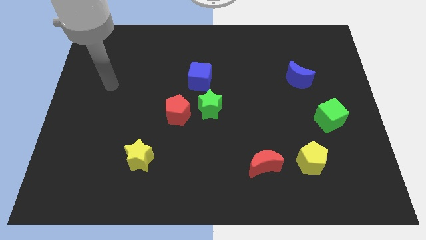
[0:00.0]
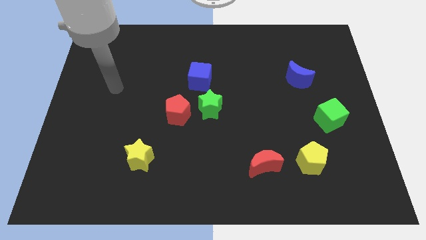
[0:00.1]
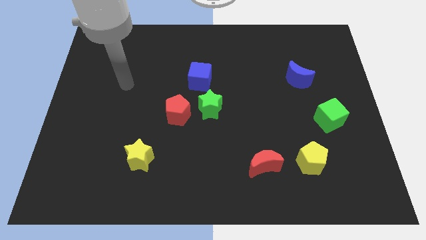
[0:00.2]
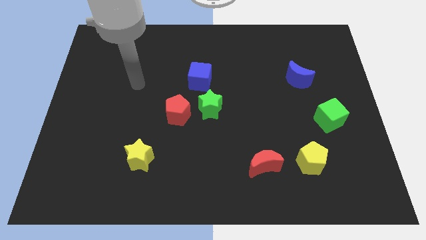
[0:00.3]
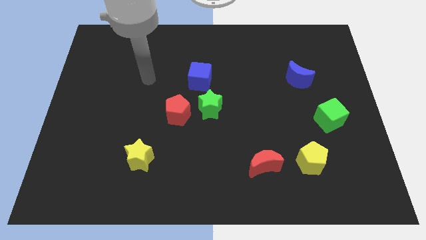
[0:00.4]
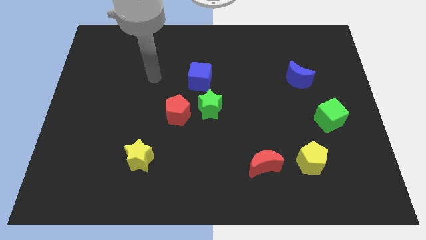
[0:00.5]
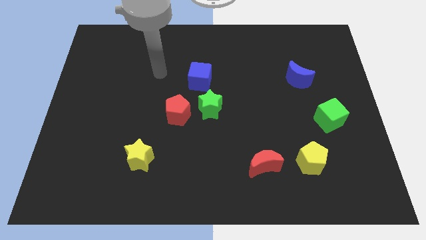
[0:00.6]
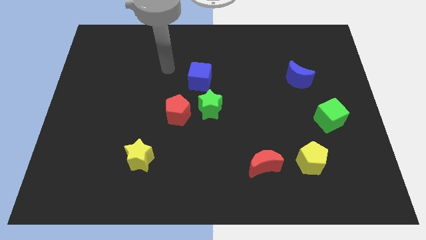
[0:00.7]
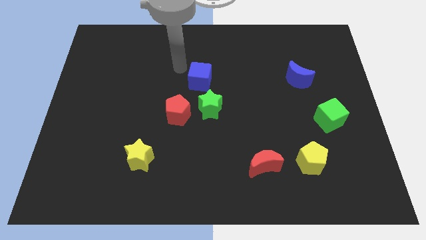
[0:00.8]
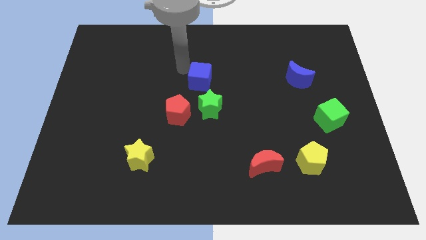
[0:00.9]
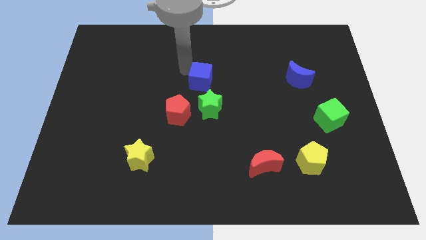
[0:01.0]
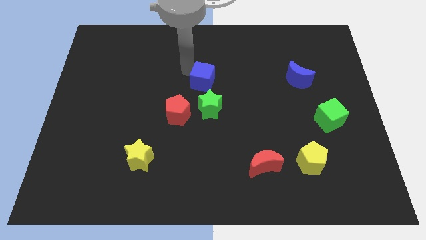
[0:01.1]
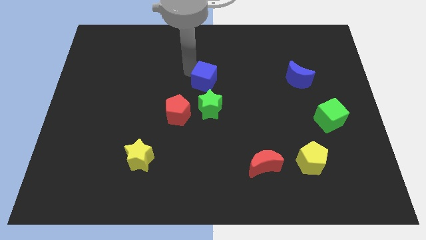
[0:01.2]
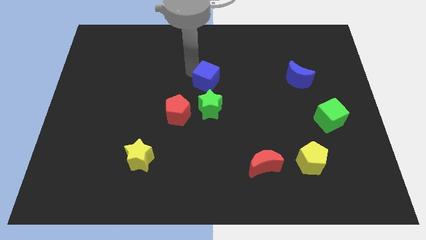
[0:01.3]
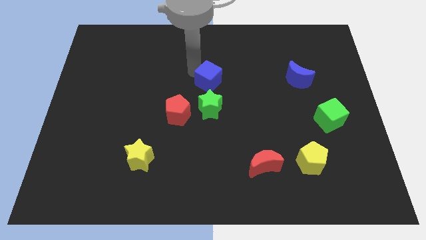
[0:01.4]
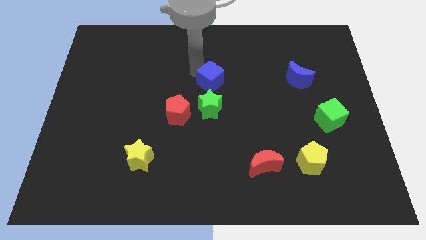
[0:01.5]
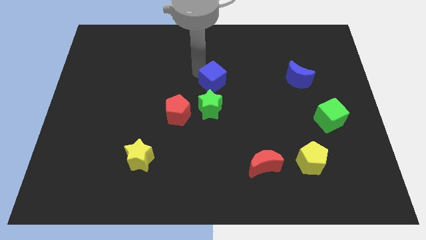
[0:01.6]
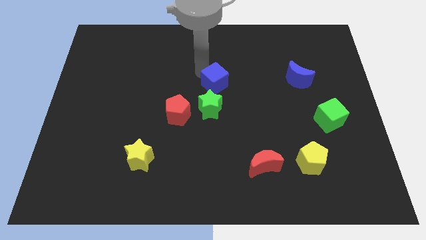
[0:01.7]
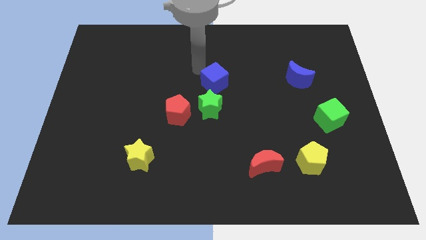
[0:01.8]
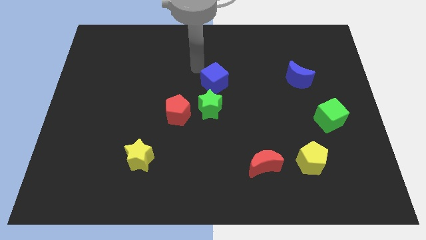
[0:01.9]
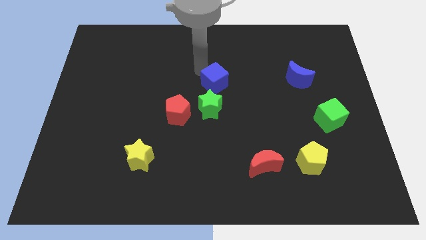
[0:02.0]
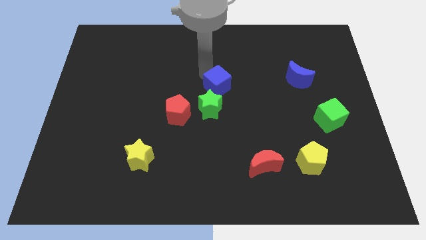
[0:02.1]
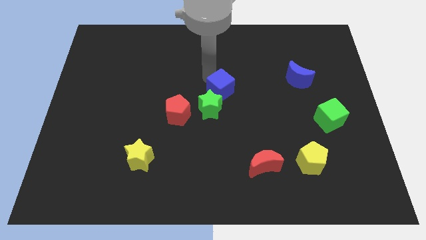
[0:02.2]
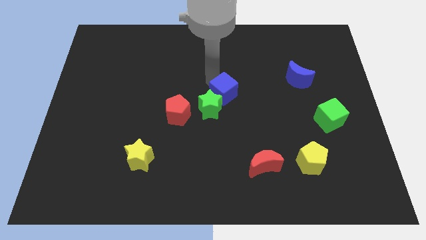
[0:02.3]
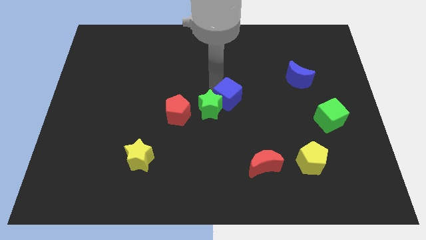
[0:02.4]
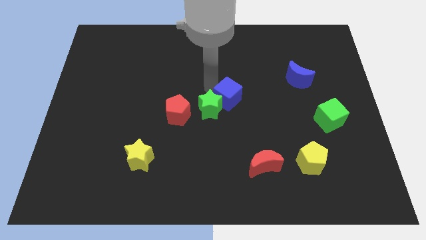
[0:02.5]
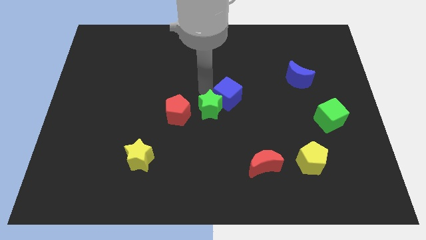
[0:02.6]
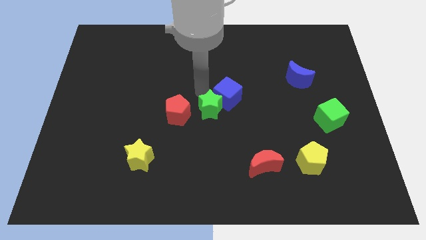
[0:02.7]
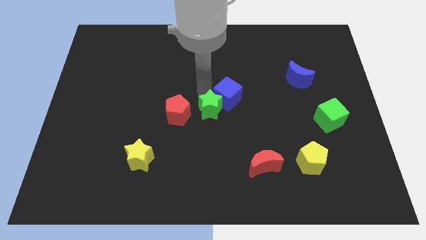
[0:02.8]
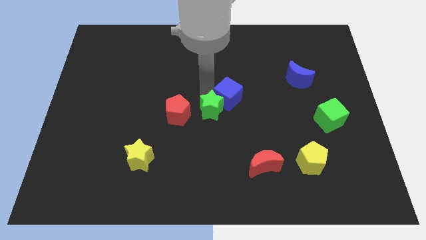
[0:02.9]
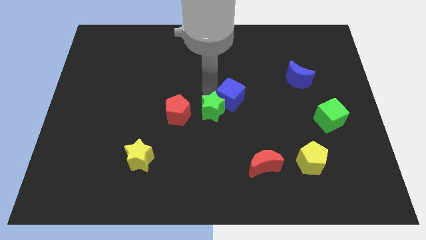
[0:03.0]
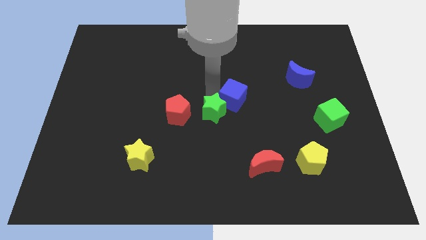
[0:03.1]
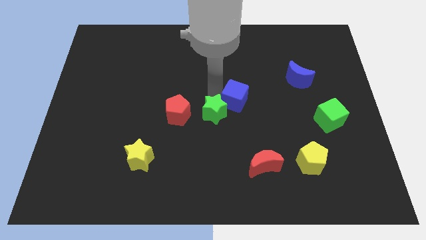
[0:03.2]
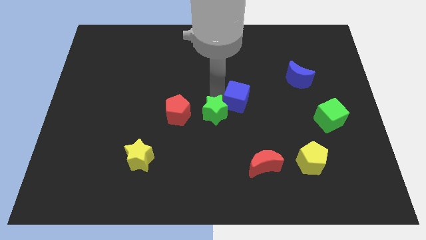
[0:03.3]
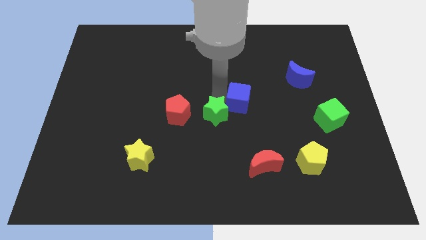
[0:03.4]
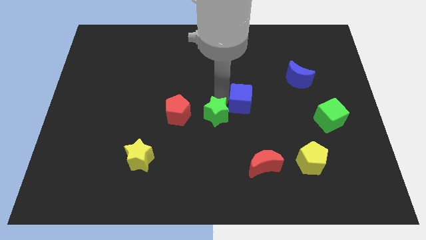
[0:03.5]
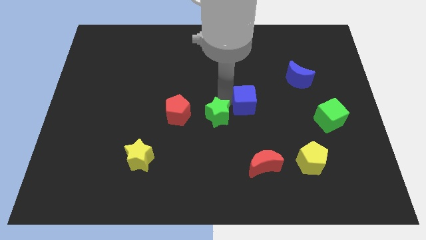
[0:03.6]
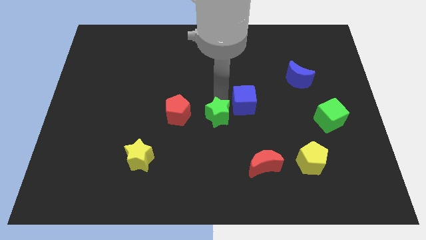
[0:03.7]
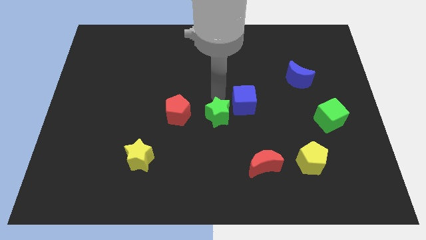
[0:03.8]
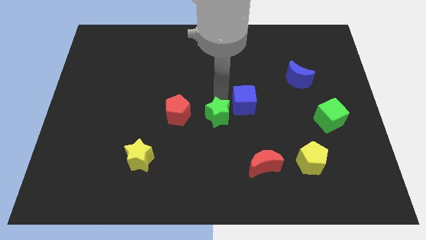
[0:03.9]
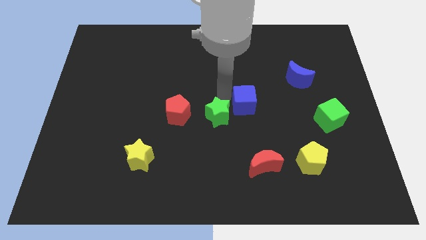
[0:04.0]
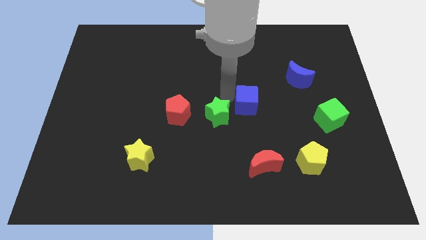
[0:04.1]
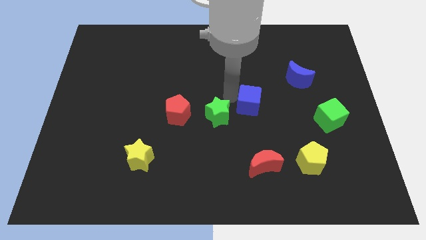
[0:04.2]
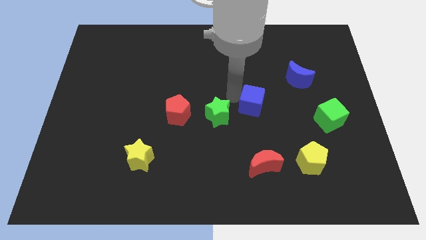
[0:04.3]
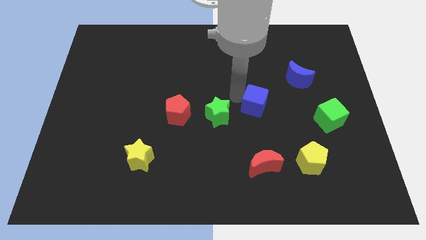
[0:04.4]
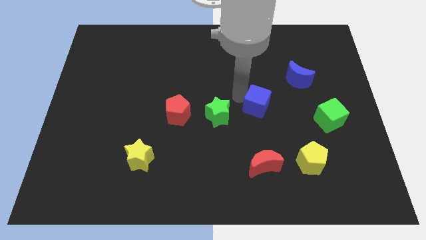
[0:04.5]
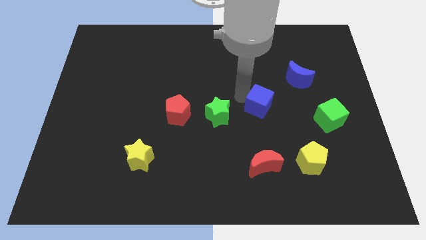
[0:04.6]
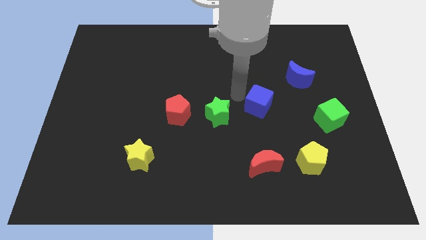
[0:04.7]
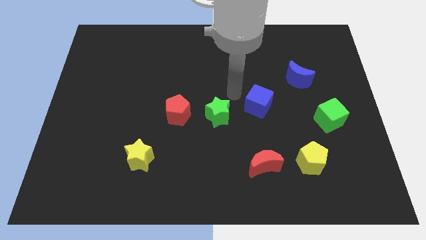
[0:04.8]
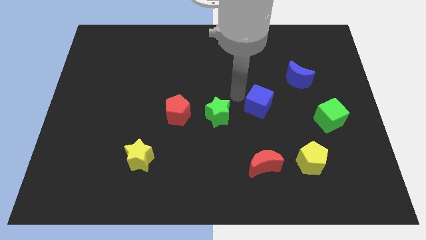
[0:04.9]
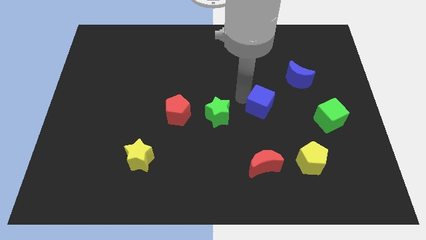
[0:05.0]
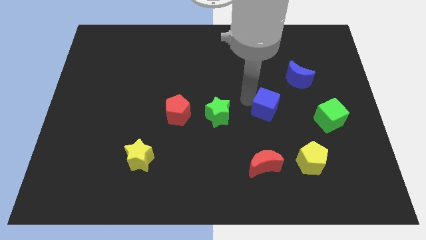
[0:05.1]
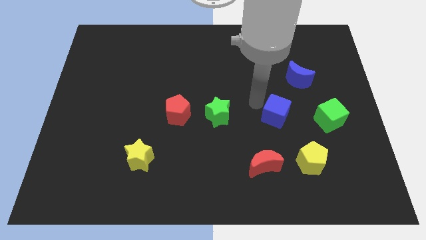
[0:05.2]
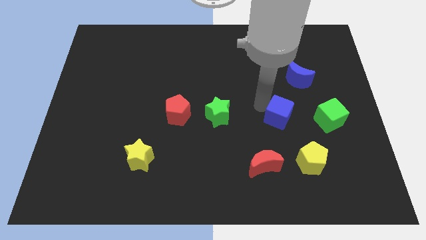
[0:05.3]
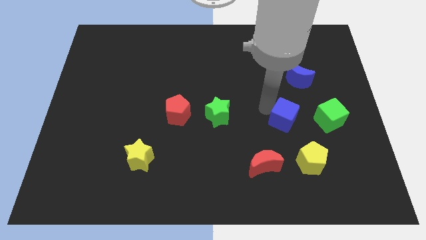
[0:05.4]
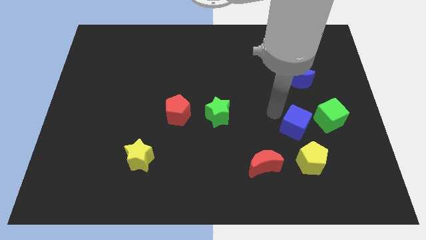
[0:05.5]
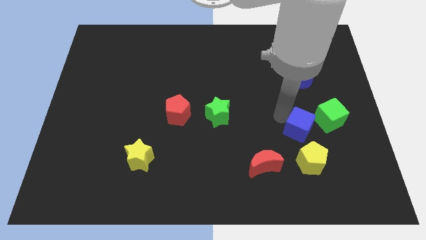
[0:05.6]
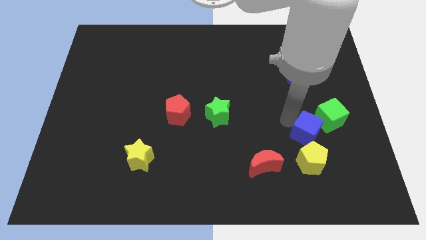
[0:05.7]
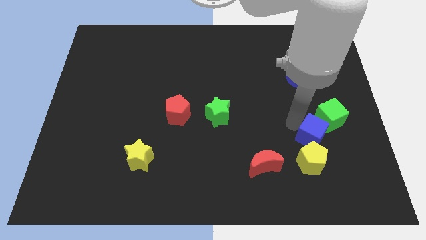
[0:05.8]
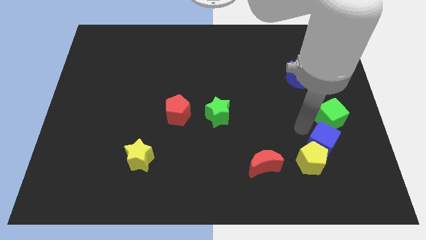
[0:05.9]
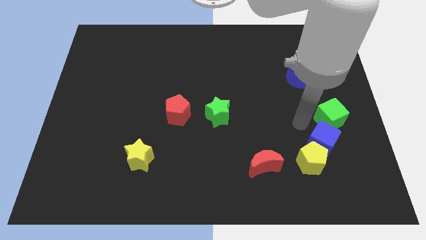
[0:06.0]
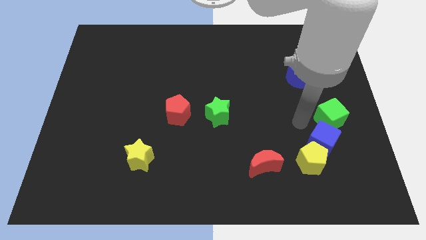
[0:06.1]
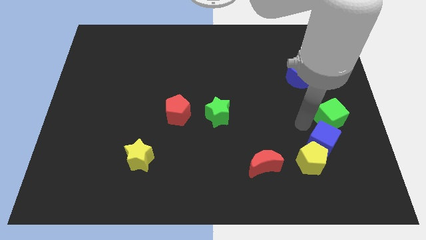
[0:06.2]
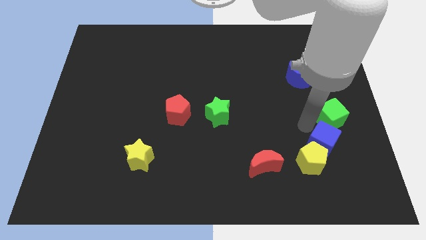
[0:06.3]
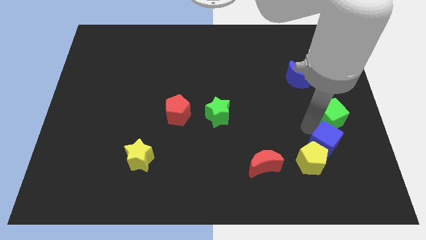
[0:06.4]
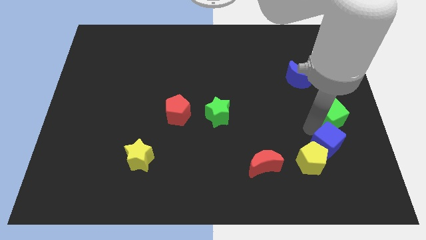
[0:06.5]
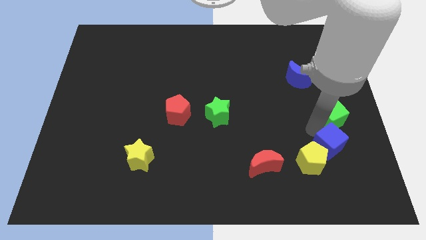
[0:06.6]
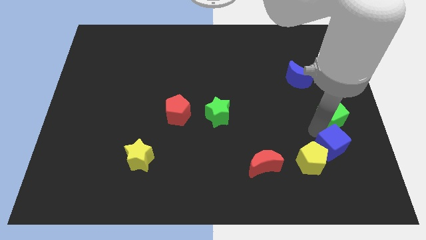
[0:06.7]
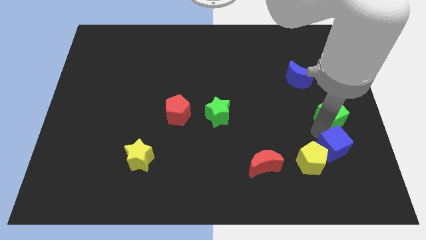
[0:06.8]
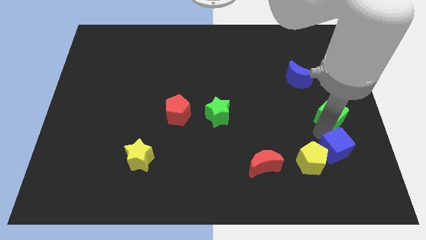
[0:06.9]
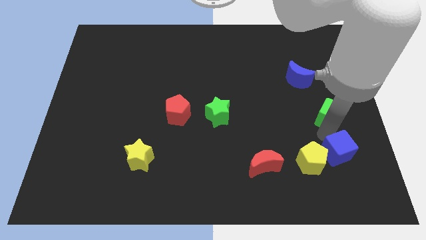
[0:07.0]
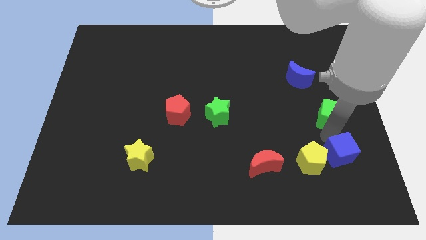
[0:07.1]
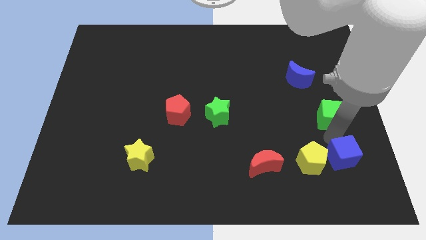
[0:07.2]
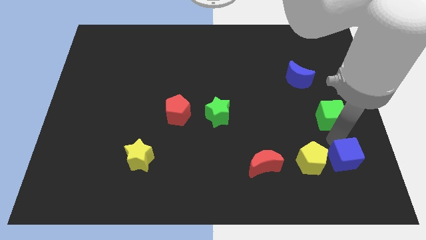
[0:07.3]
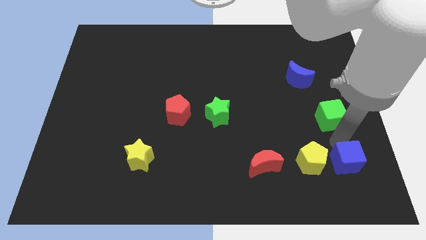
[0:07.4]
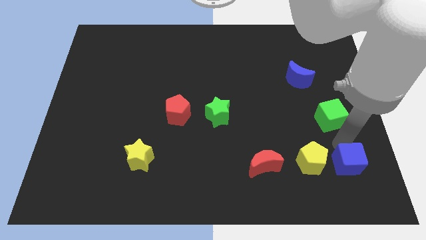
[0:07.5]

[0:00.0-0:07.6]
push the blue cube to the bottom right side of the yellow pentagon
